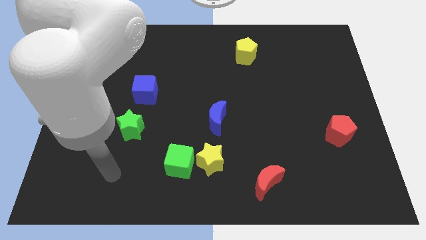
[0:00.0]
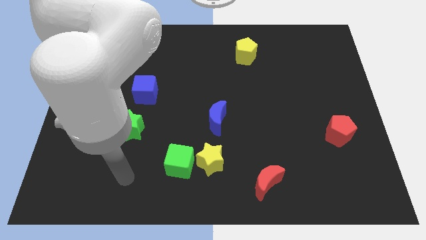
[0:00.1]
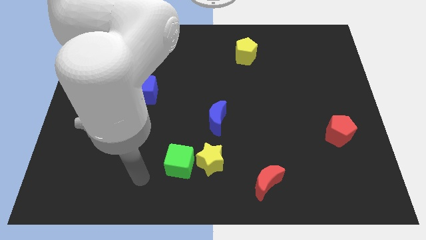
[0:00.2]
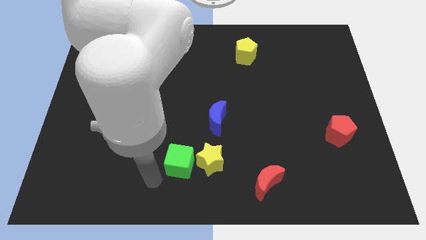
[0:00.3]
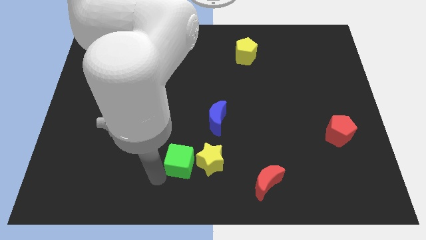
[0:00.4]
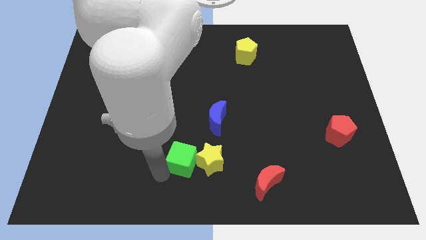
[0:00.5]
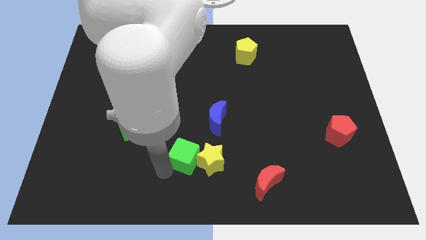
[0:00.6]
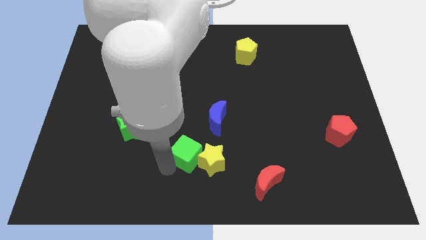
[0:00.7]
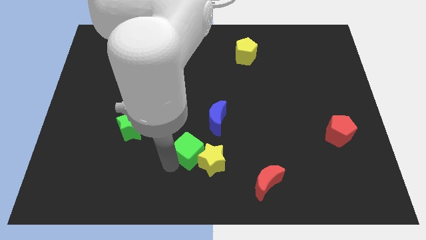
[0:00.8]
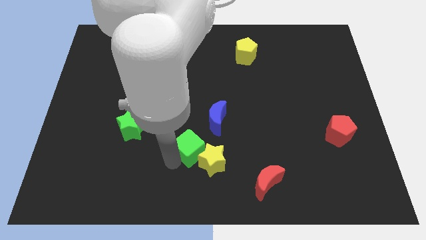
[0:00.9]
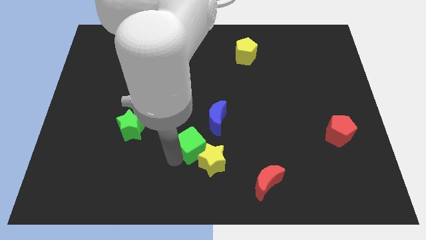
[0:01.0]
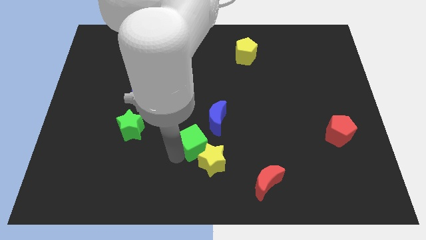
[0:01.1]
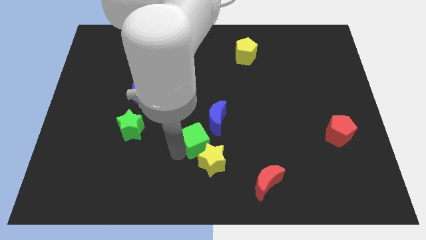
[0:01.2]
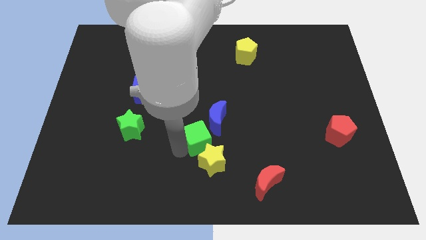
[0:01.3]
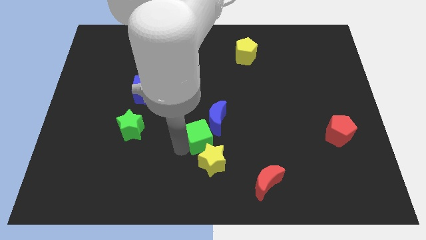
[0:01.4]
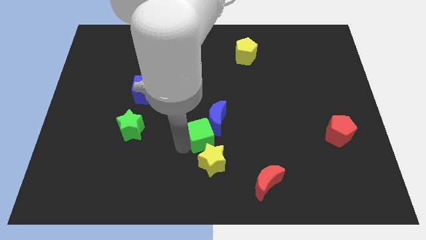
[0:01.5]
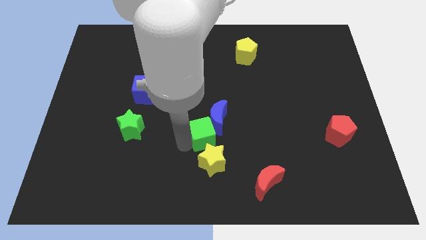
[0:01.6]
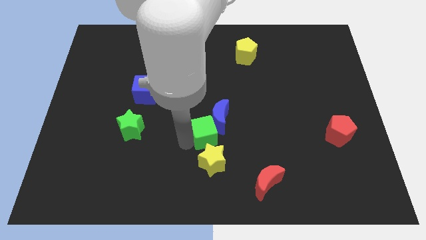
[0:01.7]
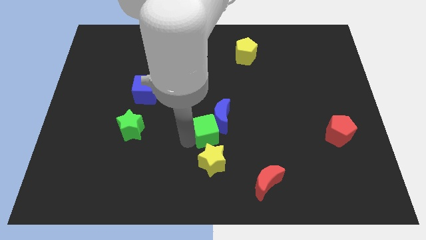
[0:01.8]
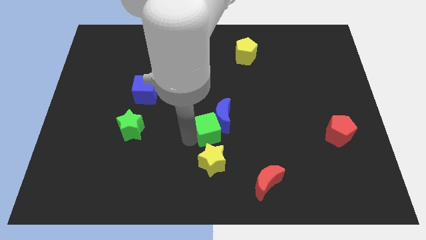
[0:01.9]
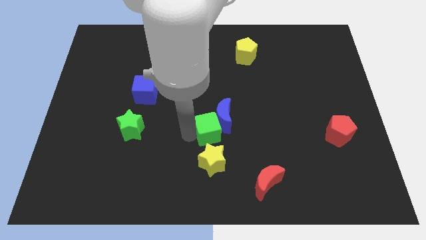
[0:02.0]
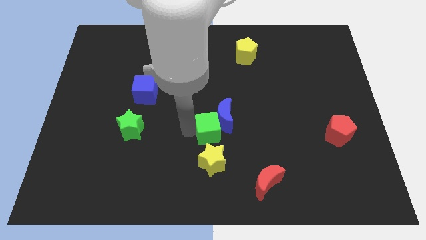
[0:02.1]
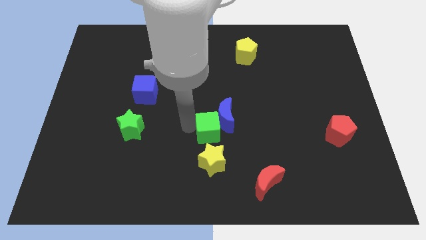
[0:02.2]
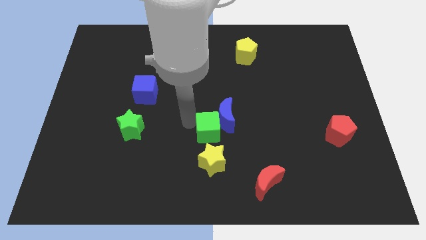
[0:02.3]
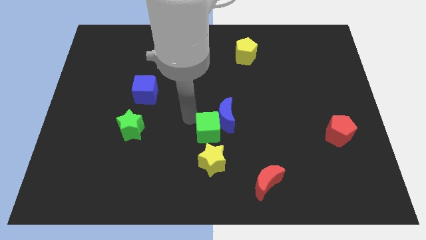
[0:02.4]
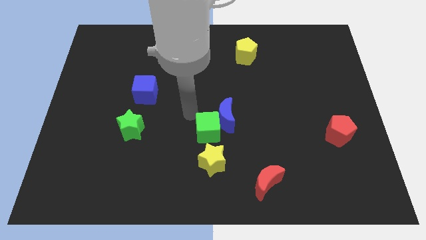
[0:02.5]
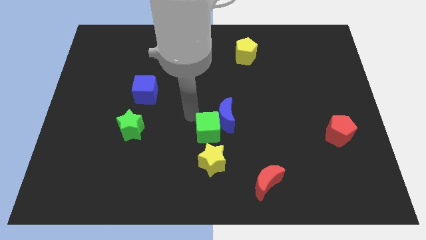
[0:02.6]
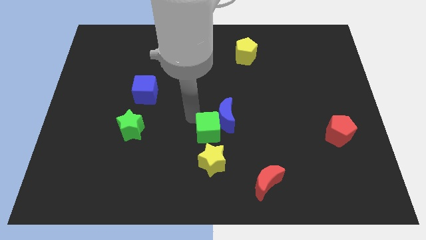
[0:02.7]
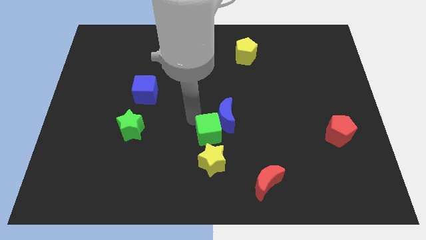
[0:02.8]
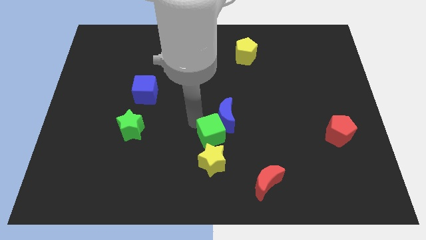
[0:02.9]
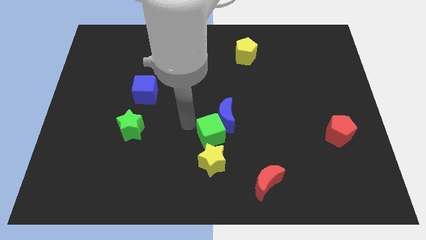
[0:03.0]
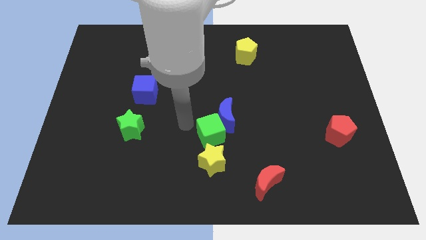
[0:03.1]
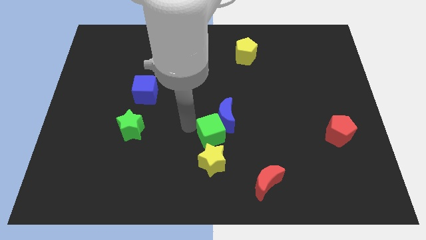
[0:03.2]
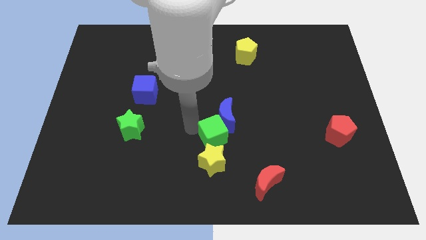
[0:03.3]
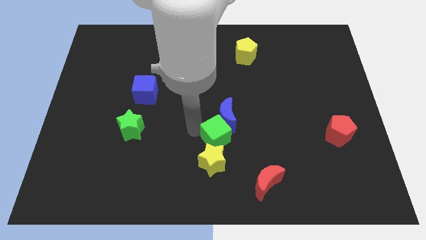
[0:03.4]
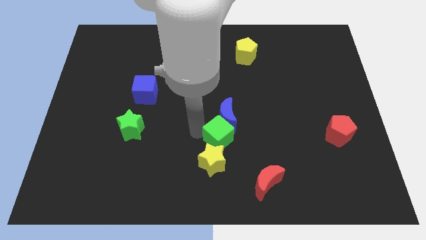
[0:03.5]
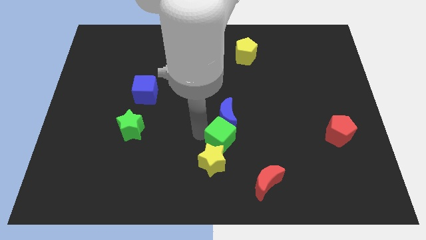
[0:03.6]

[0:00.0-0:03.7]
slightly push the green cube to the right

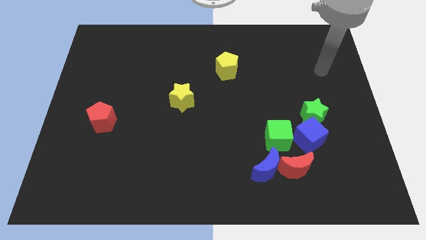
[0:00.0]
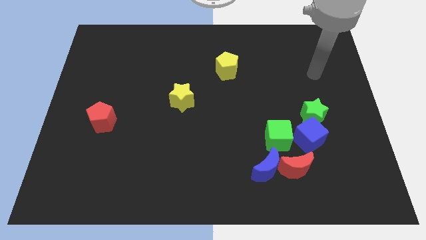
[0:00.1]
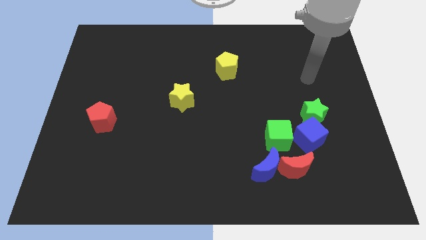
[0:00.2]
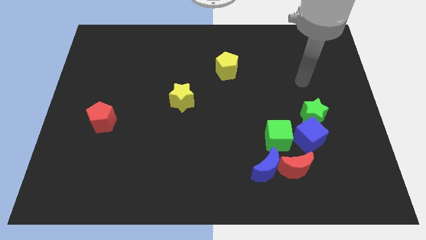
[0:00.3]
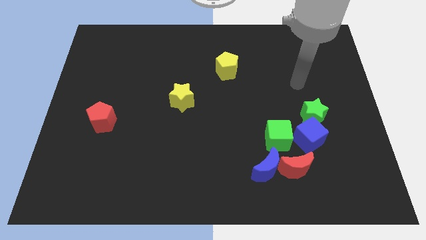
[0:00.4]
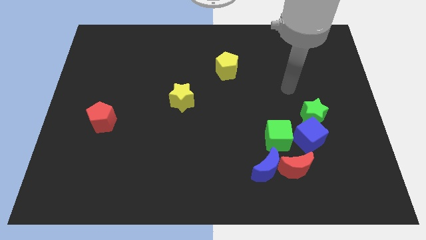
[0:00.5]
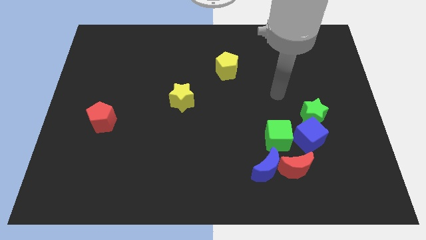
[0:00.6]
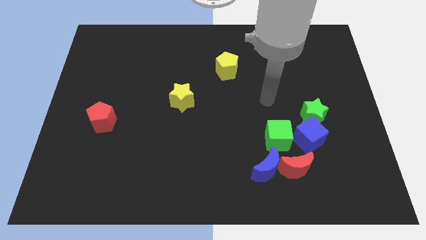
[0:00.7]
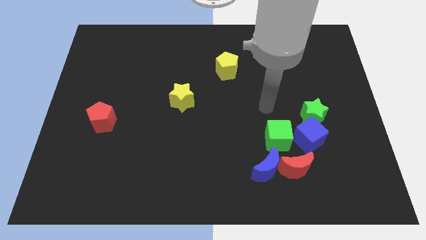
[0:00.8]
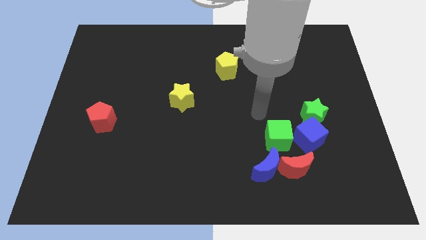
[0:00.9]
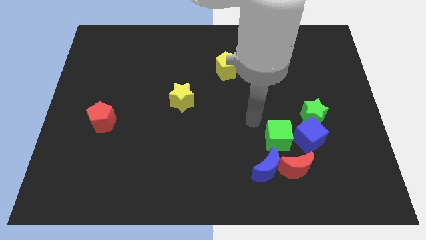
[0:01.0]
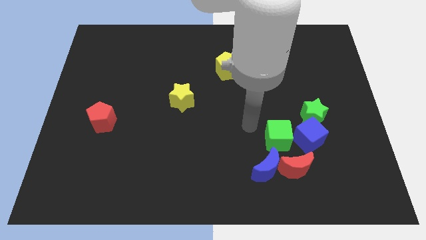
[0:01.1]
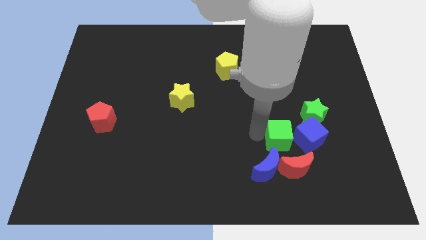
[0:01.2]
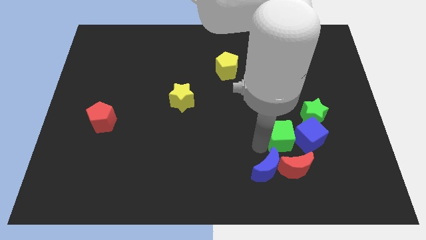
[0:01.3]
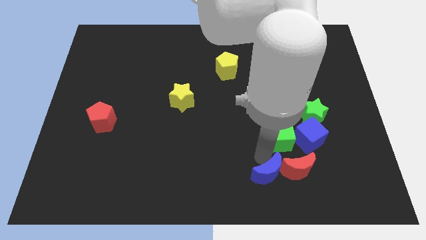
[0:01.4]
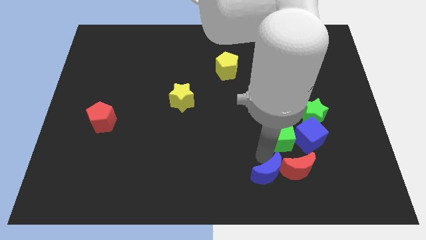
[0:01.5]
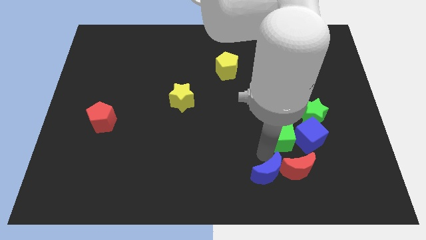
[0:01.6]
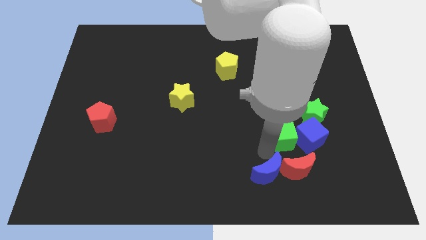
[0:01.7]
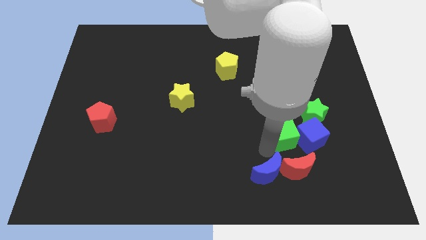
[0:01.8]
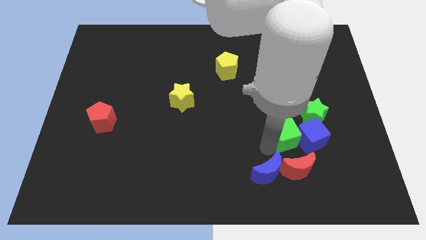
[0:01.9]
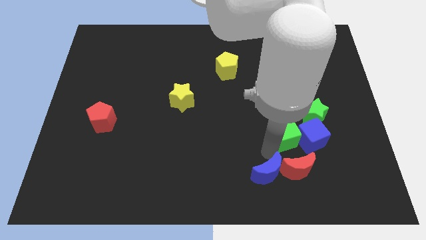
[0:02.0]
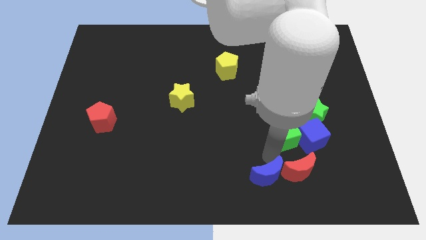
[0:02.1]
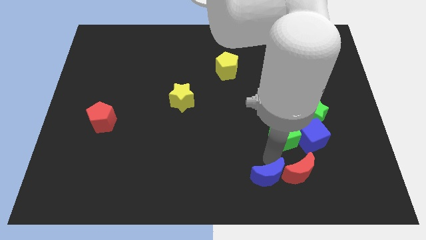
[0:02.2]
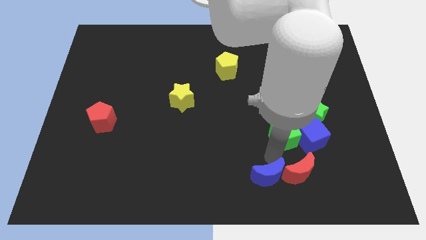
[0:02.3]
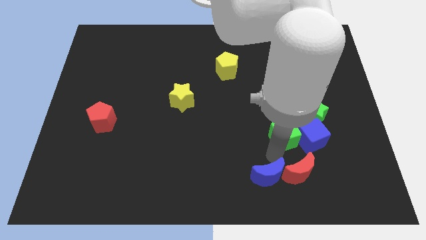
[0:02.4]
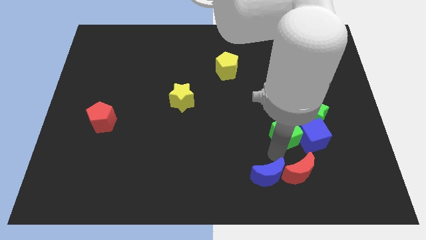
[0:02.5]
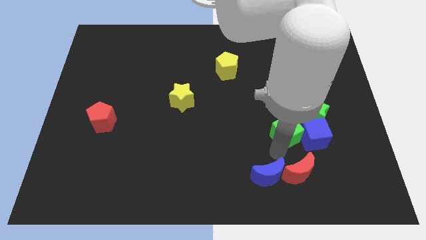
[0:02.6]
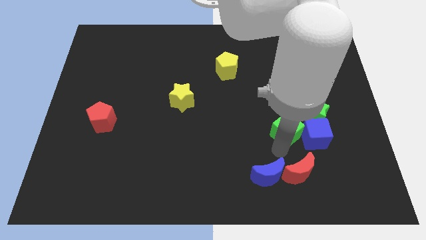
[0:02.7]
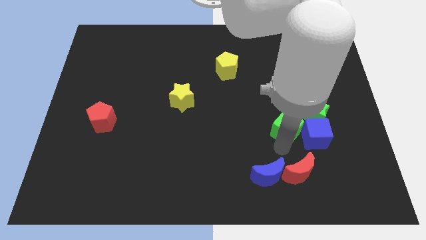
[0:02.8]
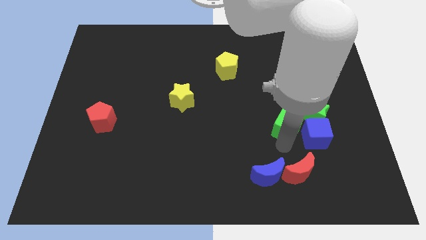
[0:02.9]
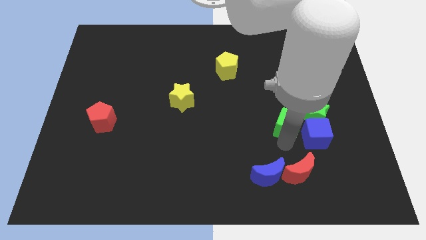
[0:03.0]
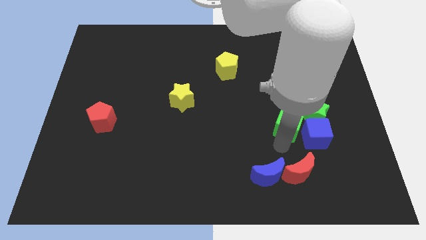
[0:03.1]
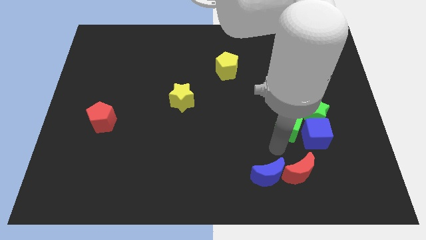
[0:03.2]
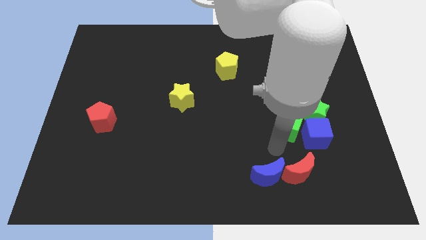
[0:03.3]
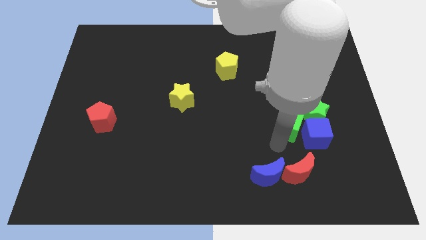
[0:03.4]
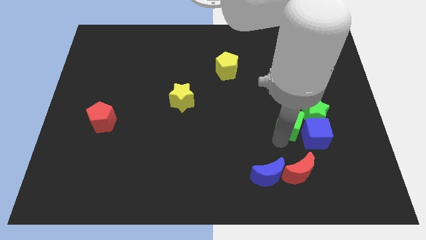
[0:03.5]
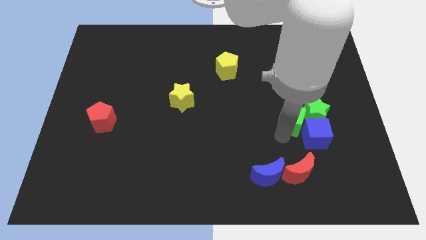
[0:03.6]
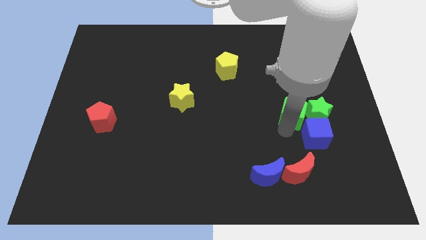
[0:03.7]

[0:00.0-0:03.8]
push the green cube a little diagonally upwards and right

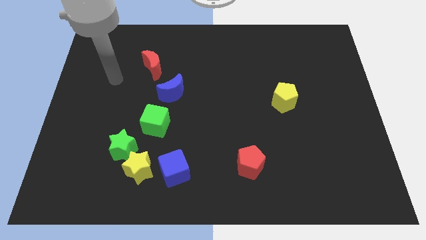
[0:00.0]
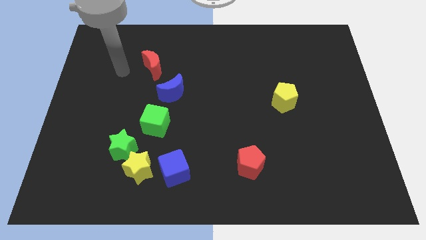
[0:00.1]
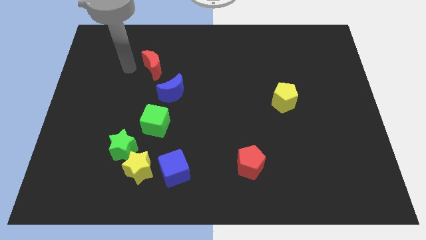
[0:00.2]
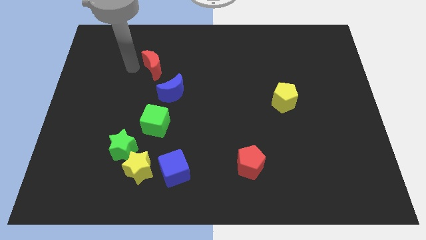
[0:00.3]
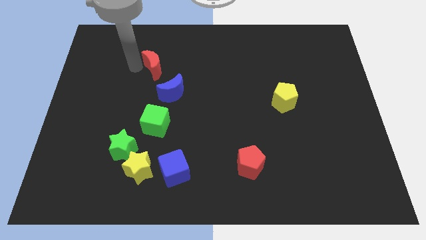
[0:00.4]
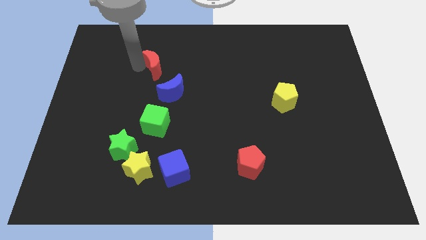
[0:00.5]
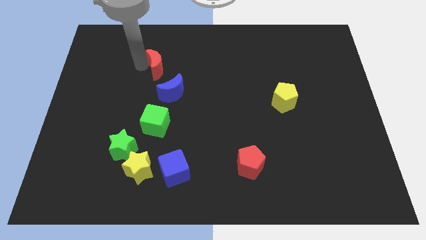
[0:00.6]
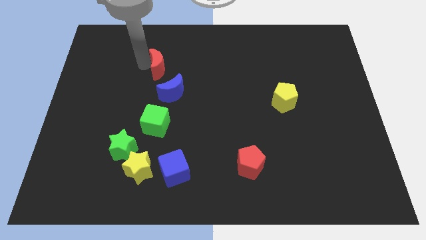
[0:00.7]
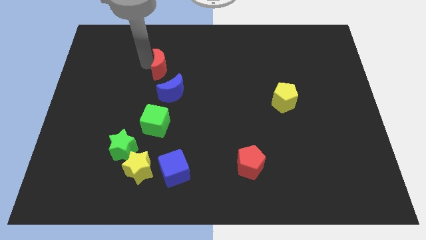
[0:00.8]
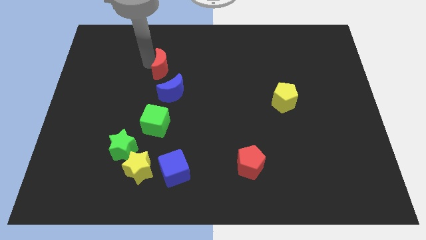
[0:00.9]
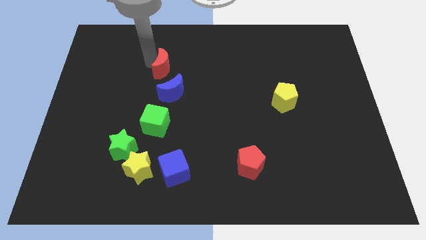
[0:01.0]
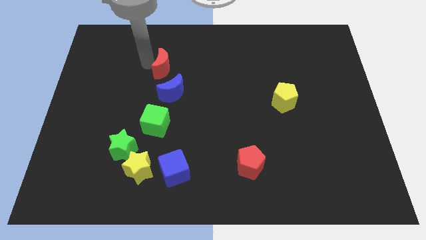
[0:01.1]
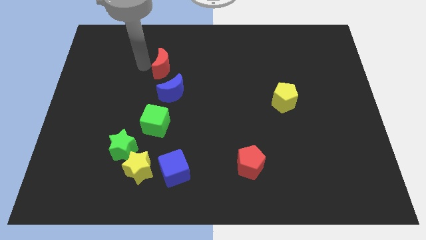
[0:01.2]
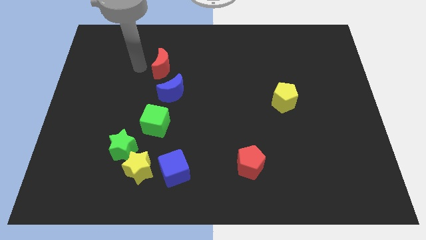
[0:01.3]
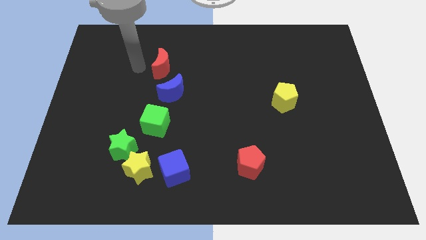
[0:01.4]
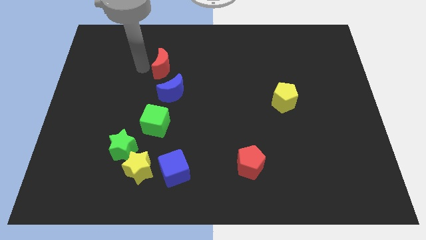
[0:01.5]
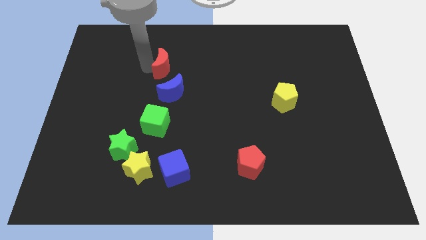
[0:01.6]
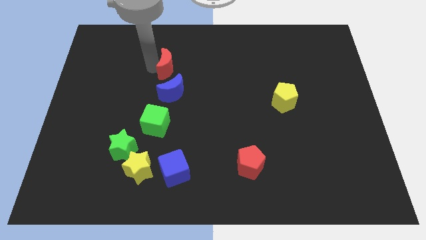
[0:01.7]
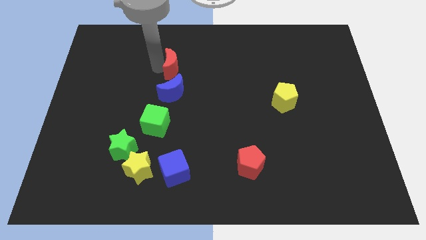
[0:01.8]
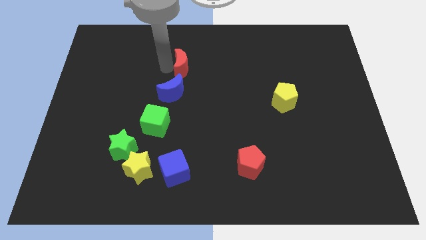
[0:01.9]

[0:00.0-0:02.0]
slide the red moon somewhat right
